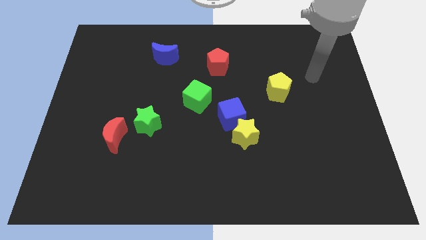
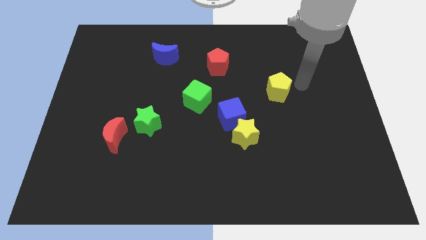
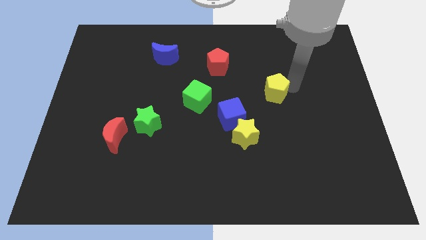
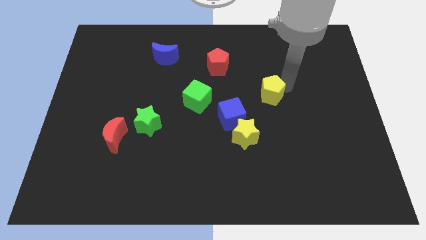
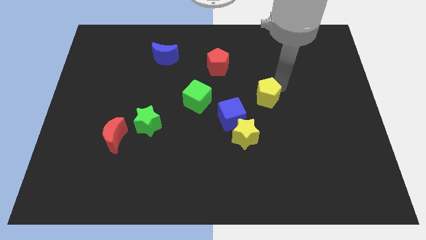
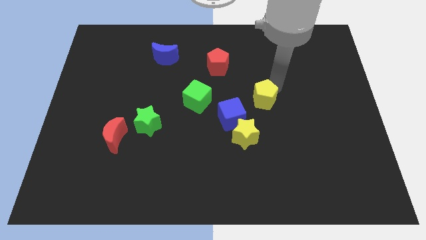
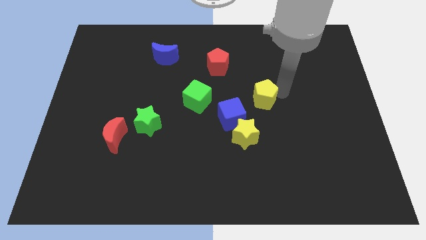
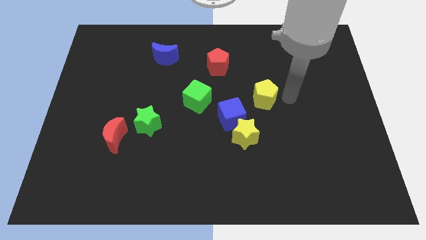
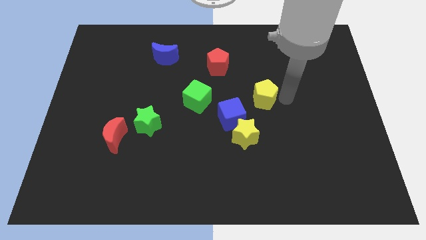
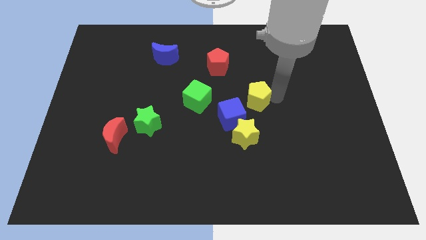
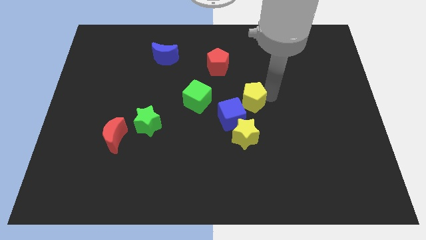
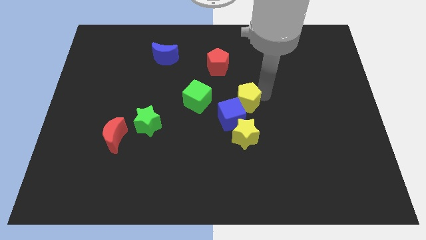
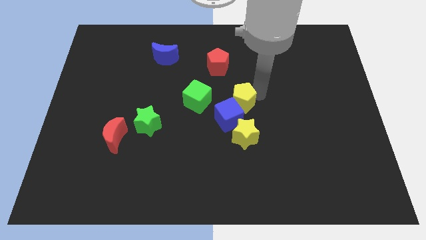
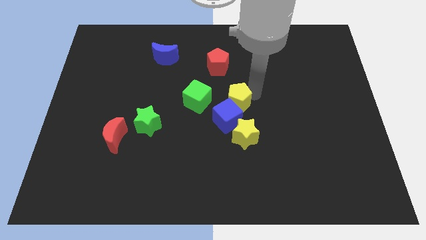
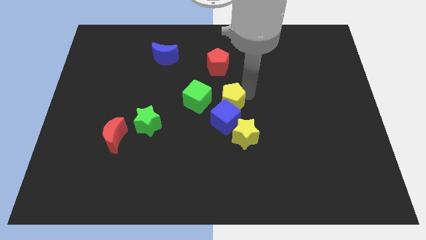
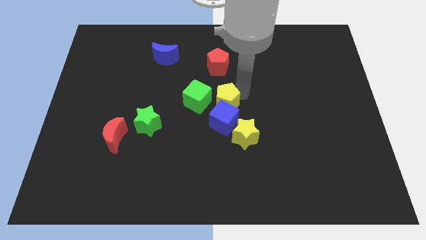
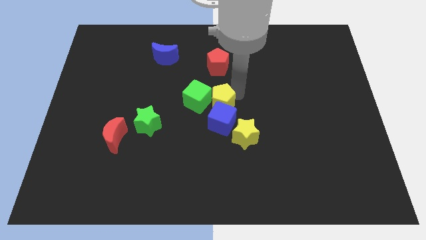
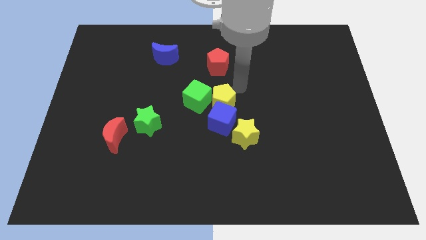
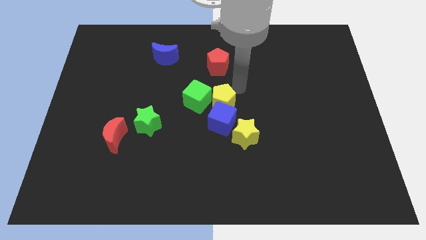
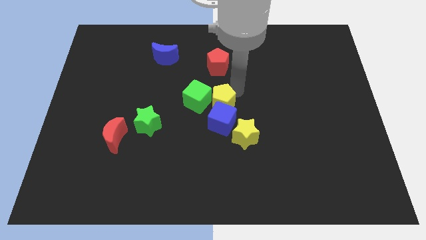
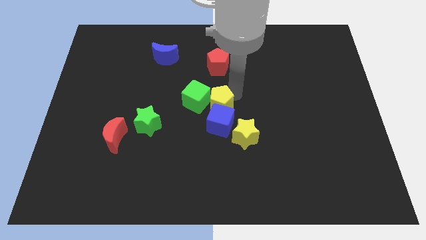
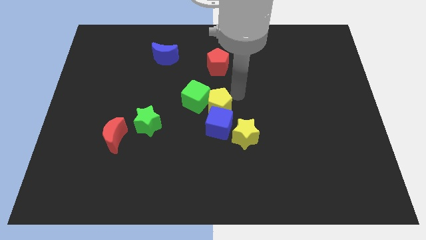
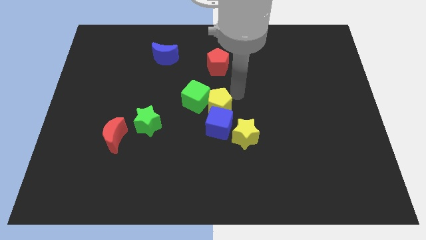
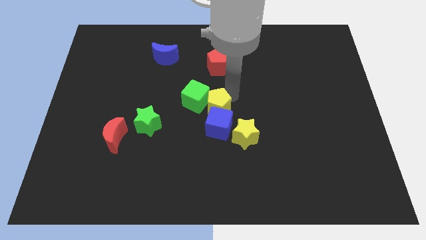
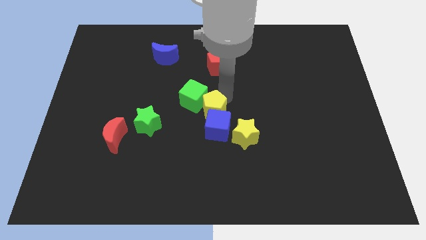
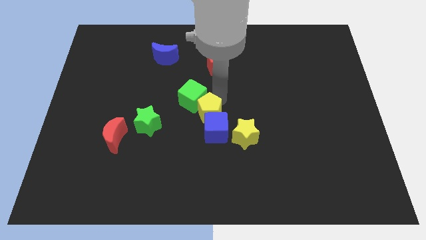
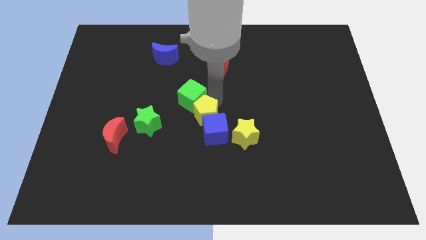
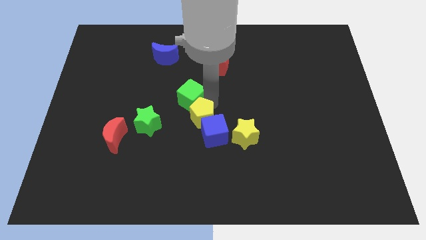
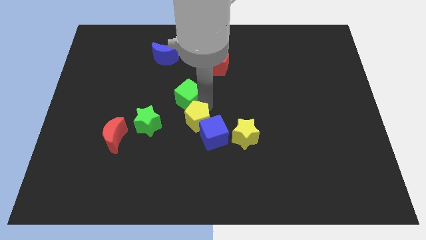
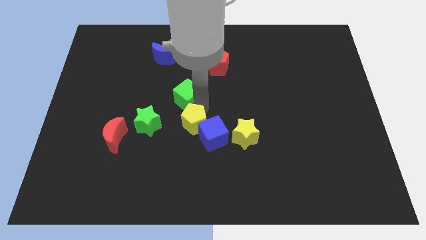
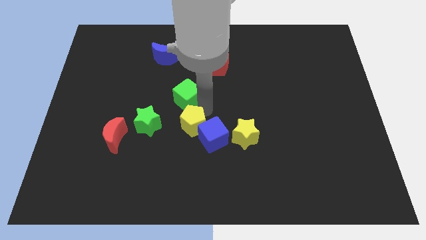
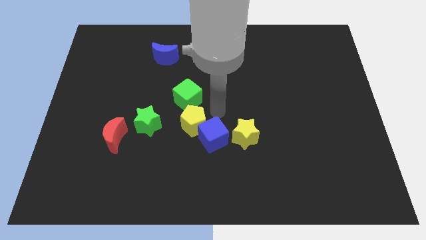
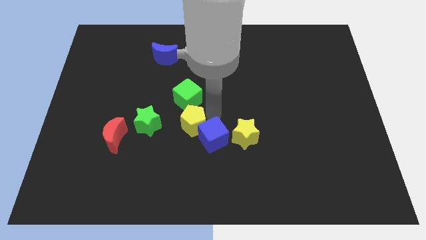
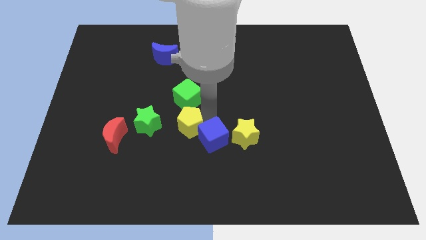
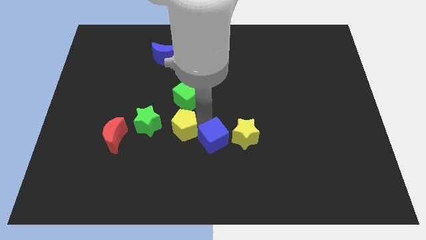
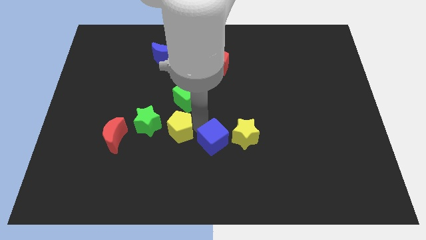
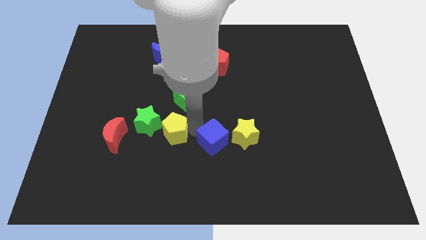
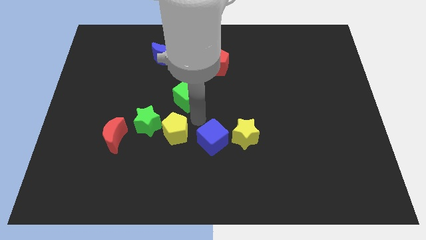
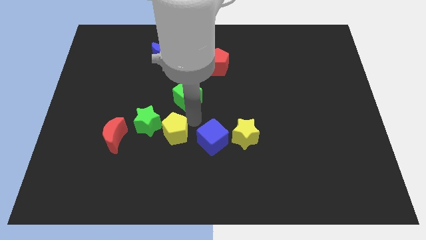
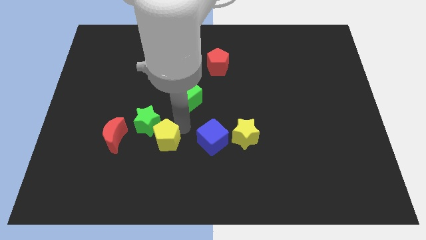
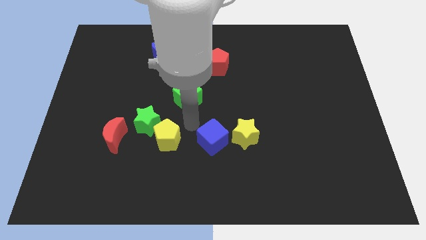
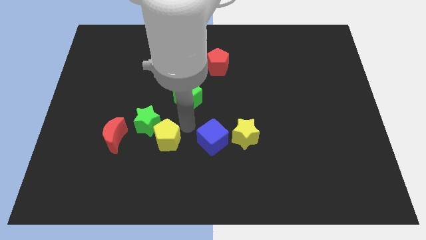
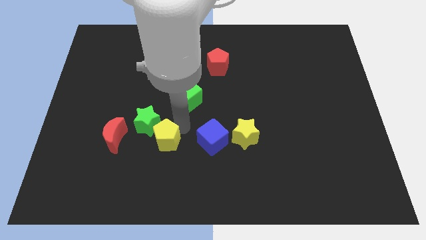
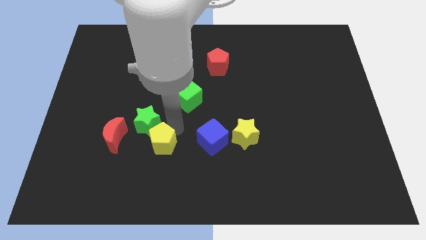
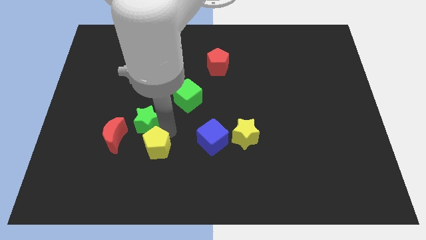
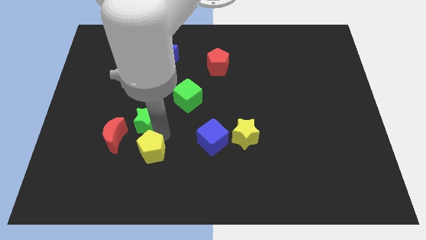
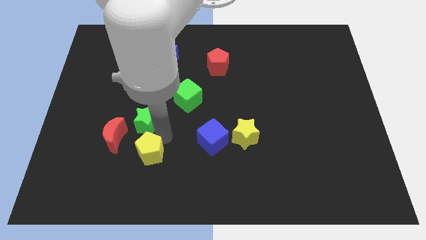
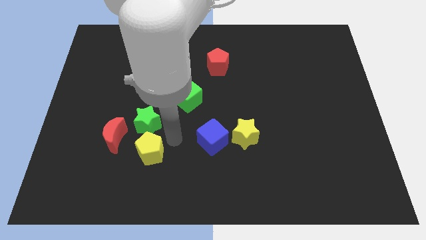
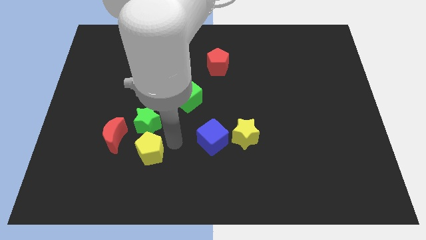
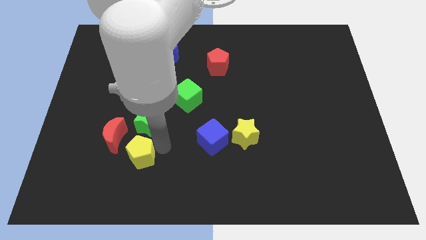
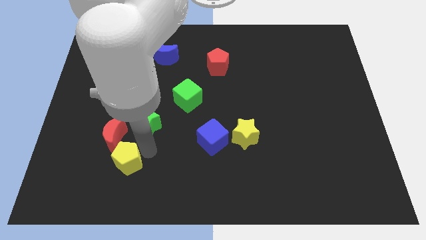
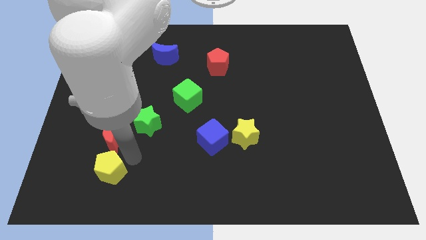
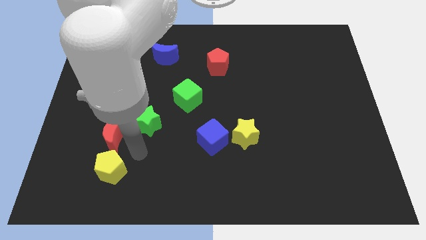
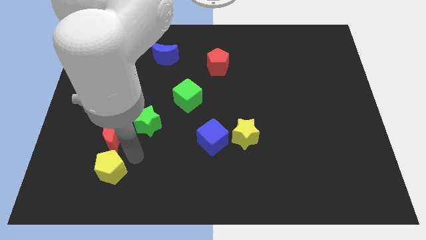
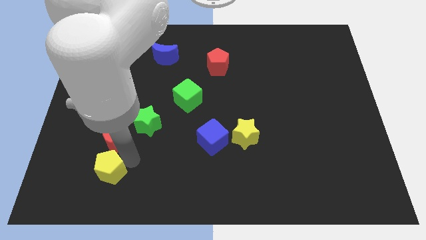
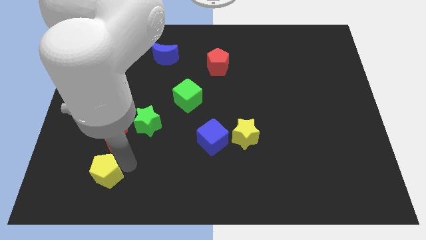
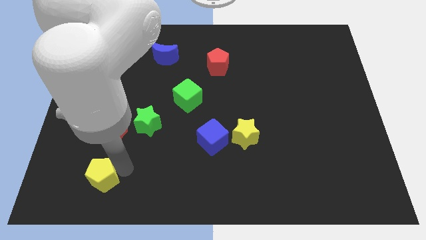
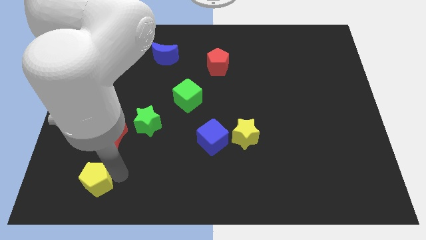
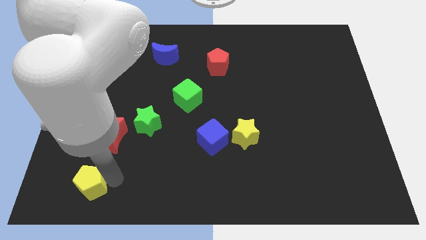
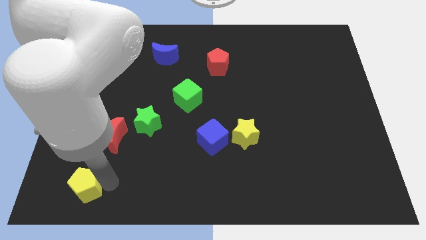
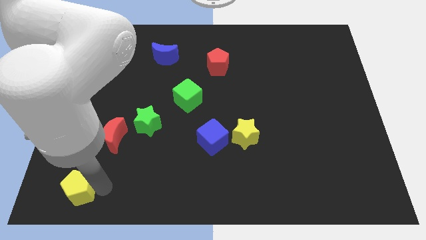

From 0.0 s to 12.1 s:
push the yellow pentagon to the bottom left
